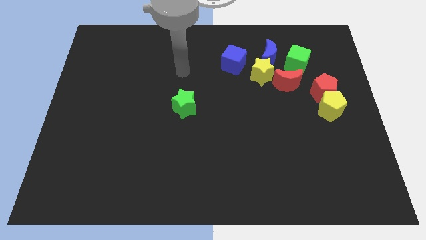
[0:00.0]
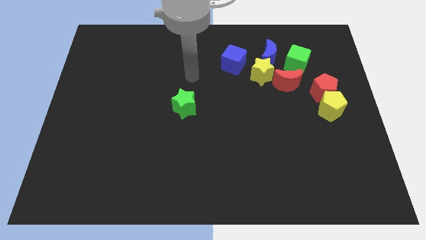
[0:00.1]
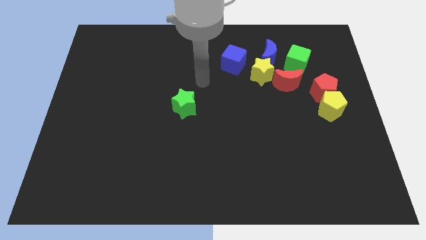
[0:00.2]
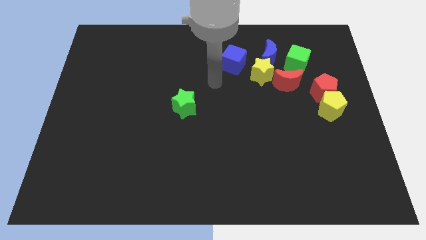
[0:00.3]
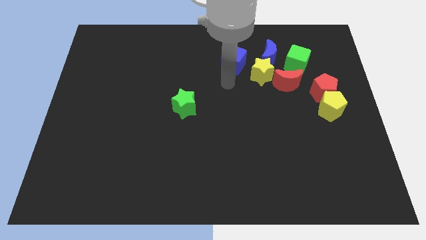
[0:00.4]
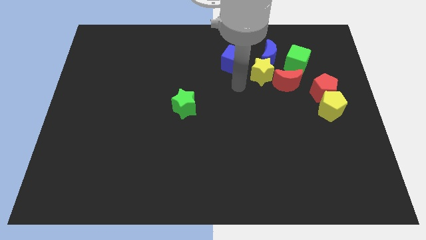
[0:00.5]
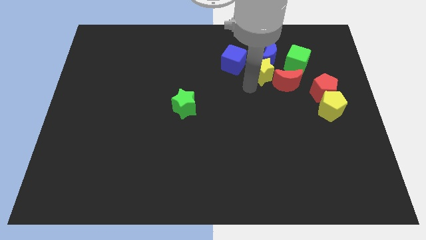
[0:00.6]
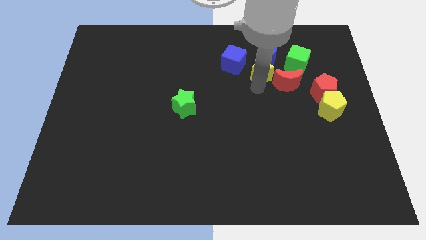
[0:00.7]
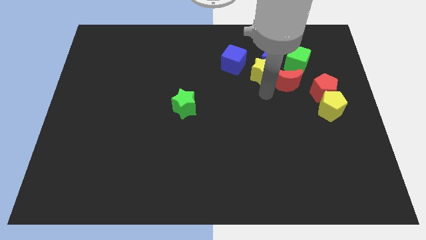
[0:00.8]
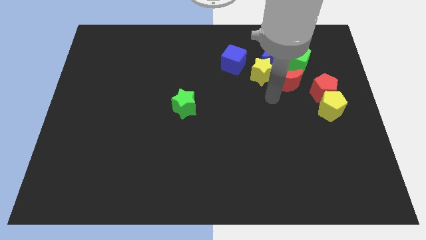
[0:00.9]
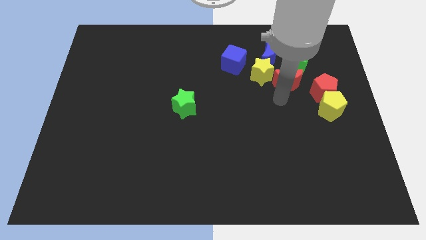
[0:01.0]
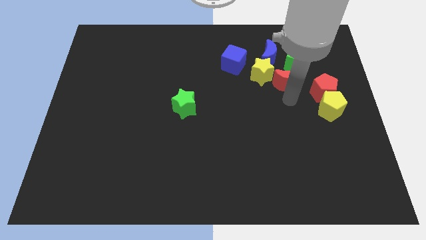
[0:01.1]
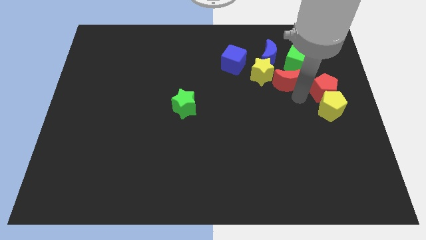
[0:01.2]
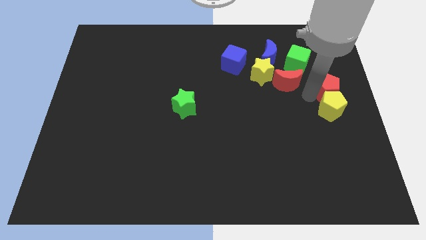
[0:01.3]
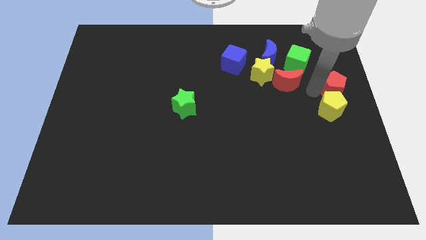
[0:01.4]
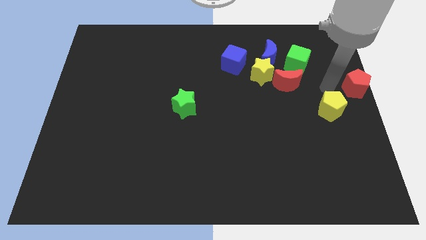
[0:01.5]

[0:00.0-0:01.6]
move the yellow pentagon away from the red pentagon

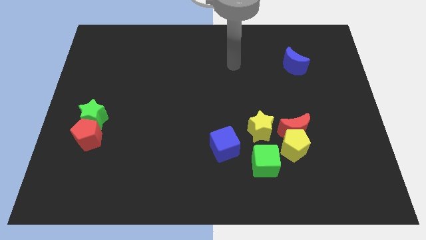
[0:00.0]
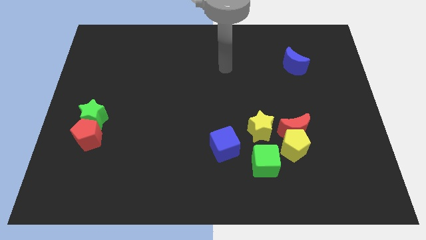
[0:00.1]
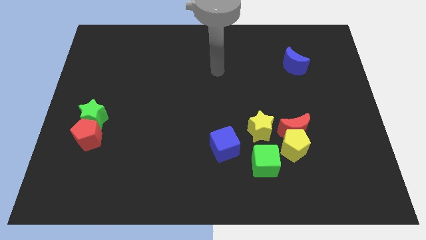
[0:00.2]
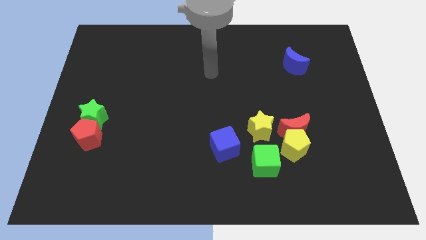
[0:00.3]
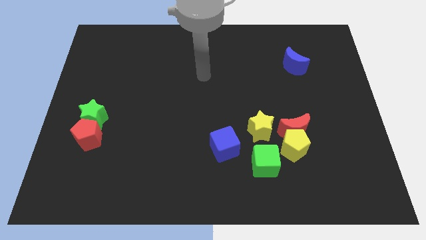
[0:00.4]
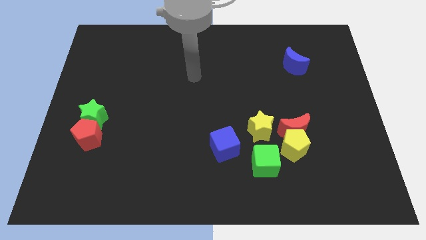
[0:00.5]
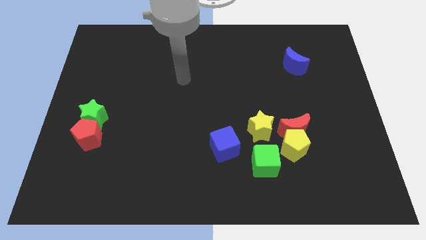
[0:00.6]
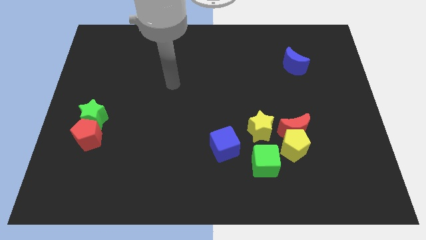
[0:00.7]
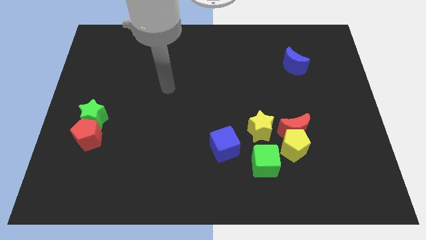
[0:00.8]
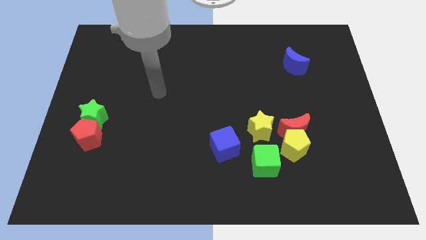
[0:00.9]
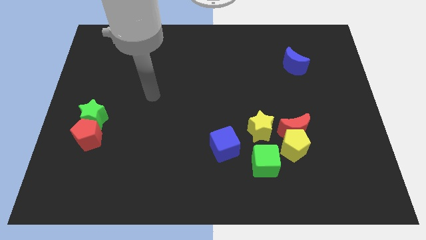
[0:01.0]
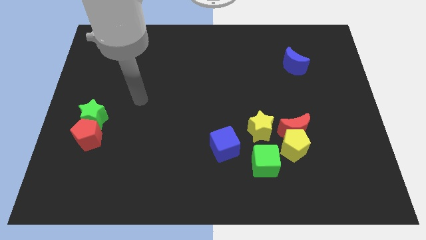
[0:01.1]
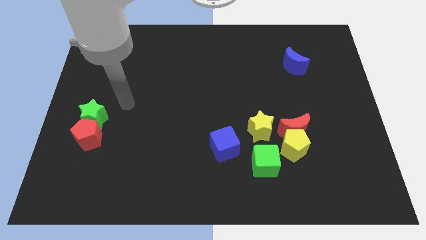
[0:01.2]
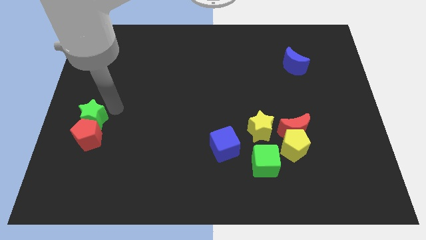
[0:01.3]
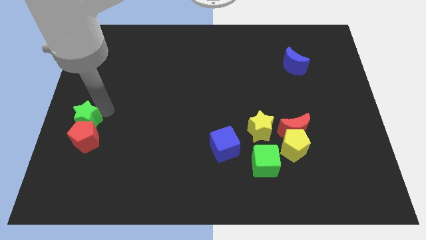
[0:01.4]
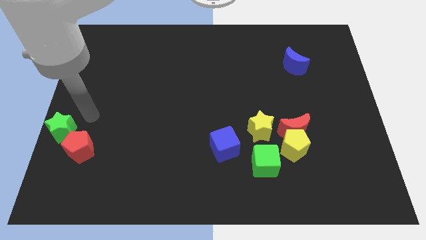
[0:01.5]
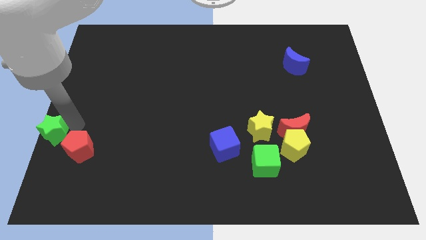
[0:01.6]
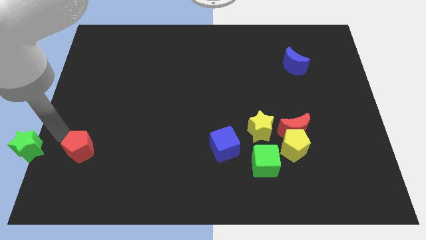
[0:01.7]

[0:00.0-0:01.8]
pull the red pentagon apart from the green star

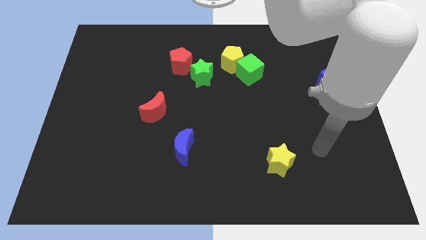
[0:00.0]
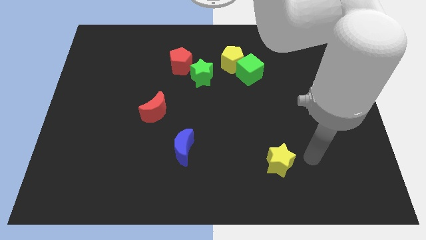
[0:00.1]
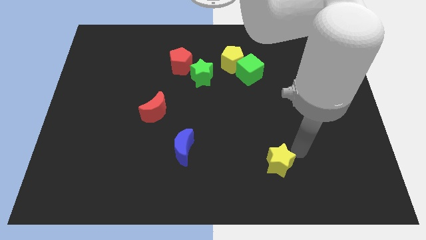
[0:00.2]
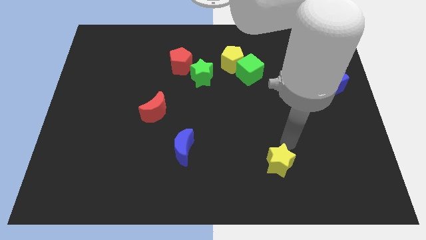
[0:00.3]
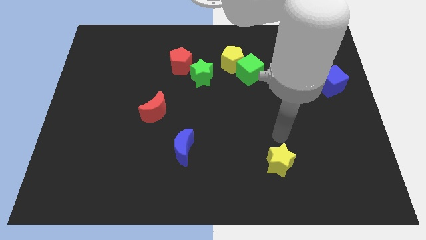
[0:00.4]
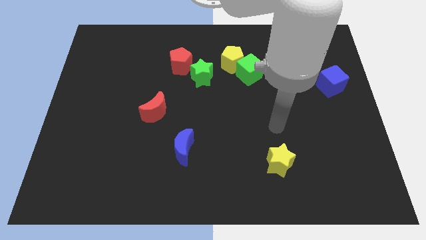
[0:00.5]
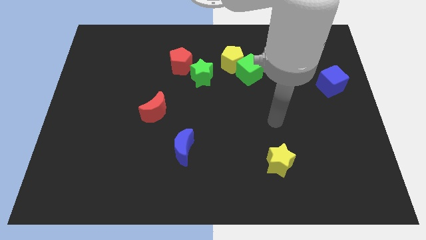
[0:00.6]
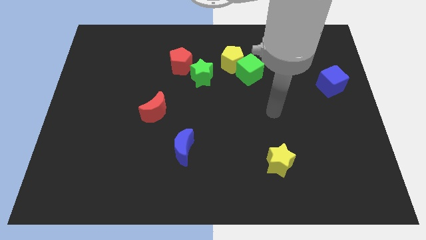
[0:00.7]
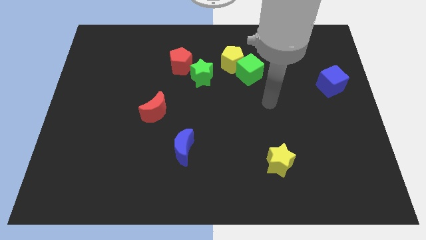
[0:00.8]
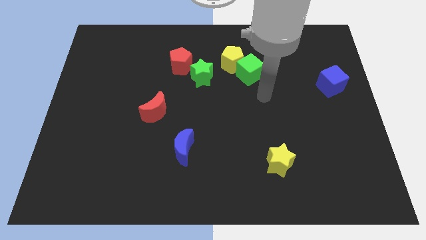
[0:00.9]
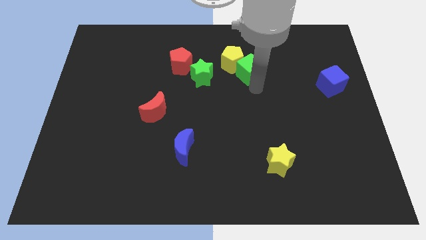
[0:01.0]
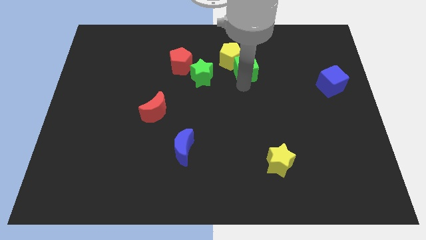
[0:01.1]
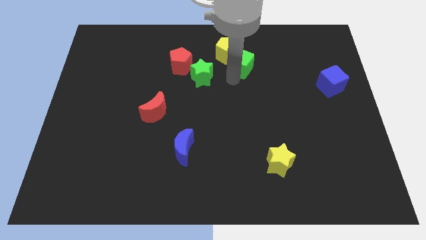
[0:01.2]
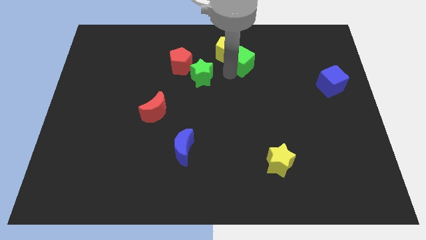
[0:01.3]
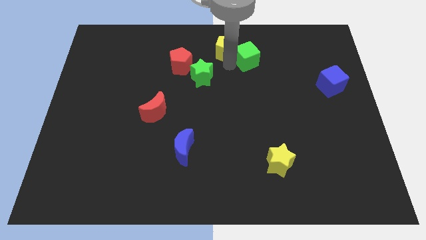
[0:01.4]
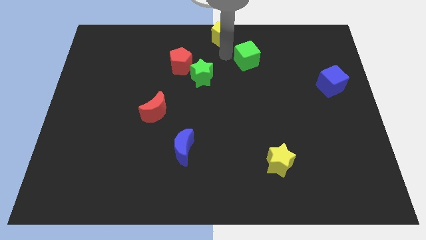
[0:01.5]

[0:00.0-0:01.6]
move the green cube away from the yellow pentagon

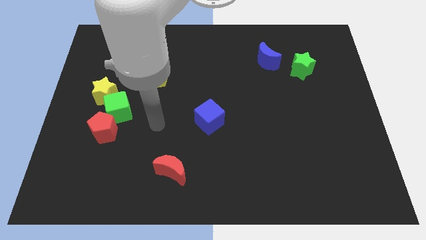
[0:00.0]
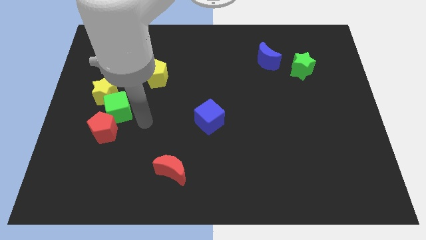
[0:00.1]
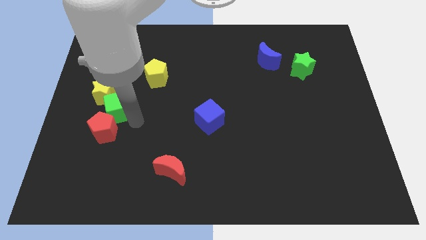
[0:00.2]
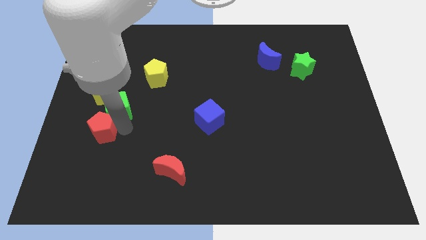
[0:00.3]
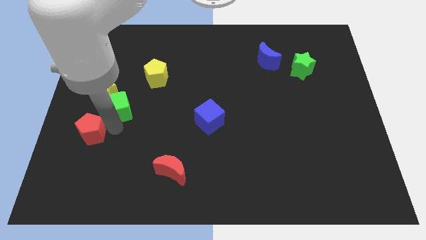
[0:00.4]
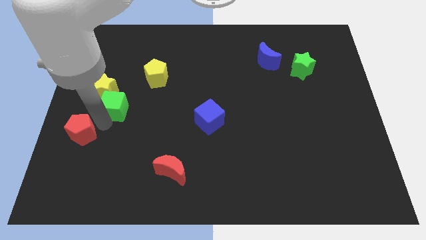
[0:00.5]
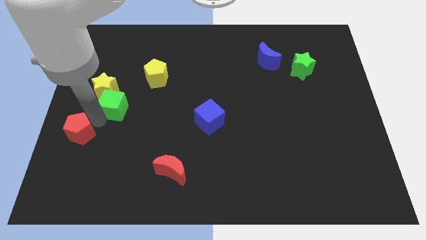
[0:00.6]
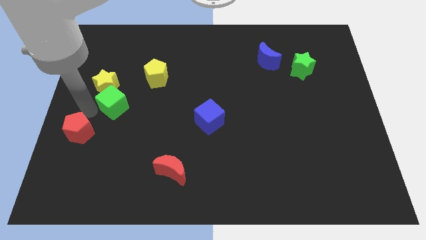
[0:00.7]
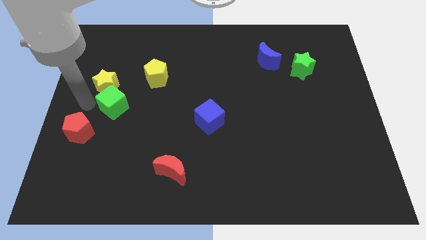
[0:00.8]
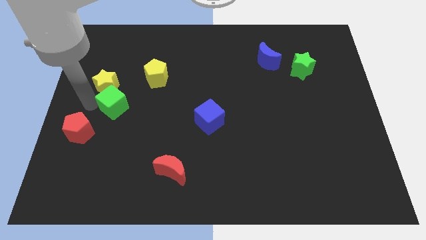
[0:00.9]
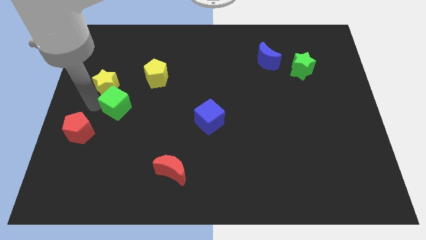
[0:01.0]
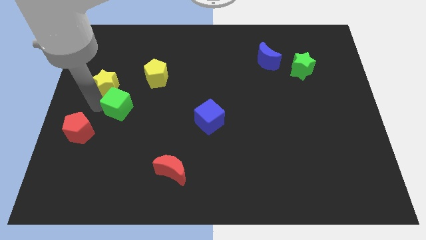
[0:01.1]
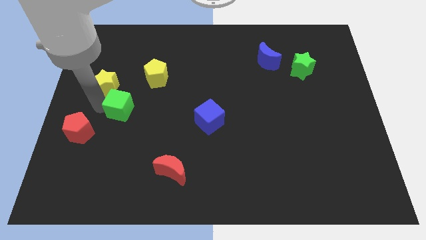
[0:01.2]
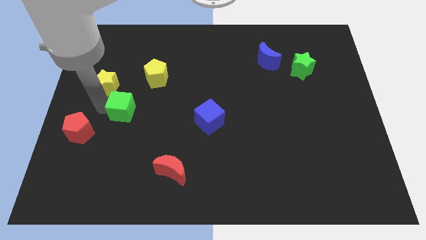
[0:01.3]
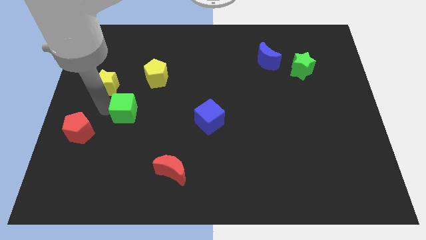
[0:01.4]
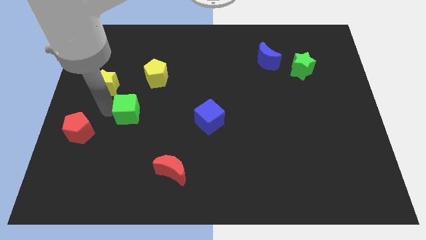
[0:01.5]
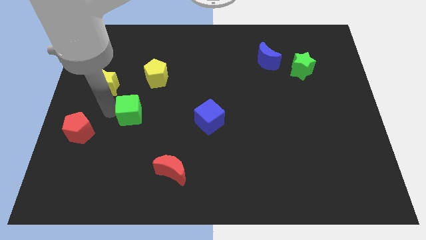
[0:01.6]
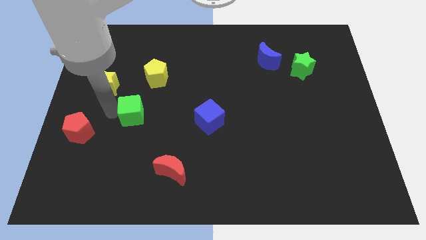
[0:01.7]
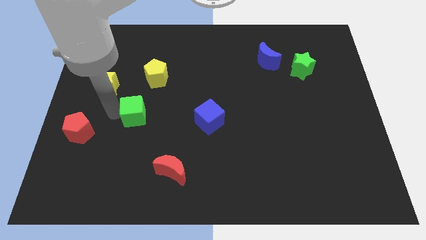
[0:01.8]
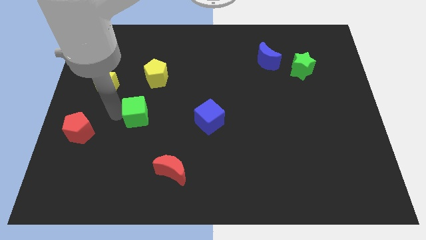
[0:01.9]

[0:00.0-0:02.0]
separate the green cube from the yellow star and red pentagon

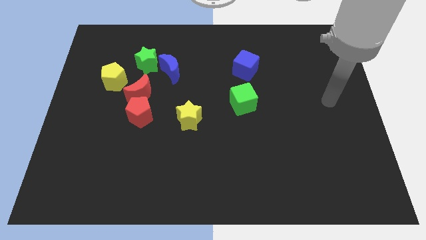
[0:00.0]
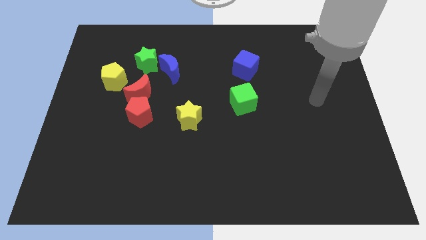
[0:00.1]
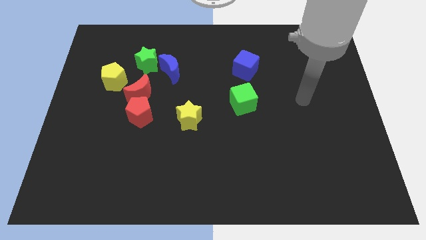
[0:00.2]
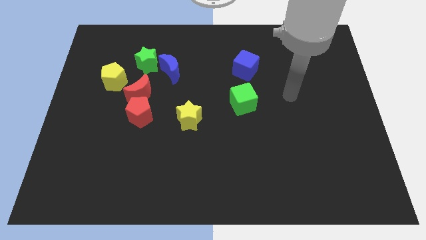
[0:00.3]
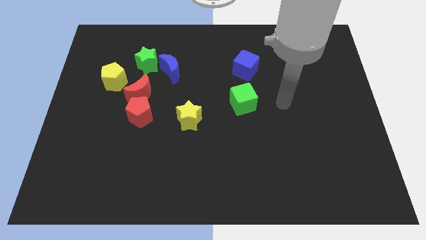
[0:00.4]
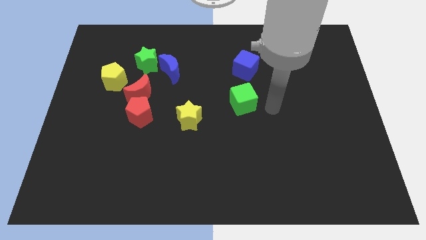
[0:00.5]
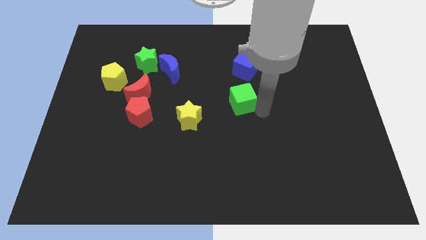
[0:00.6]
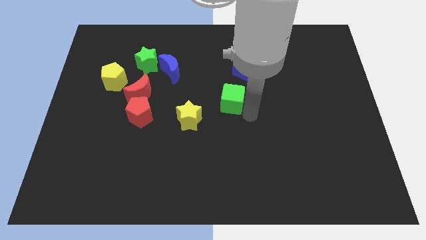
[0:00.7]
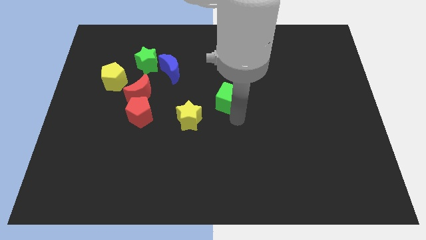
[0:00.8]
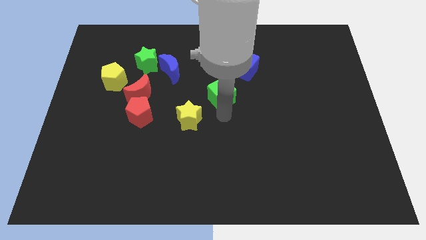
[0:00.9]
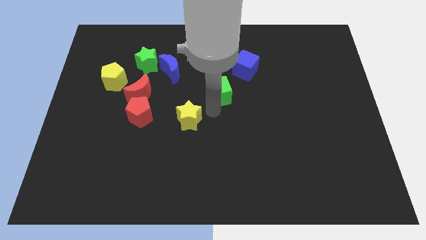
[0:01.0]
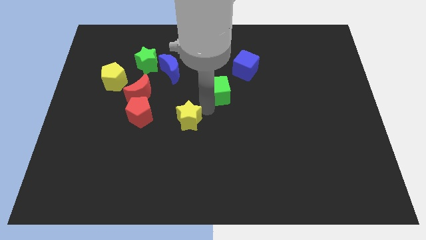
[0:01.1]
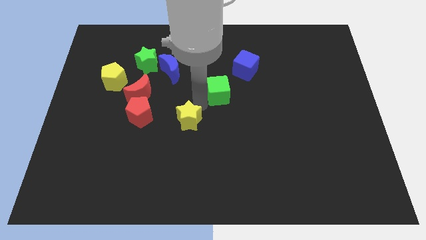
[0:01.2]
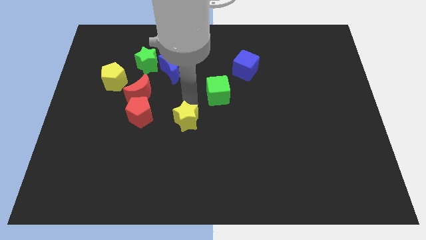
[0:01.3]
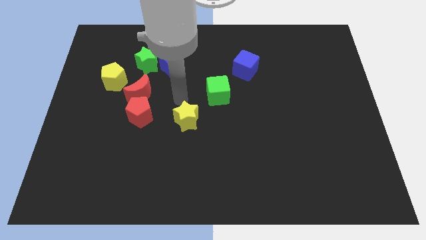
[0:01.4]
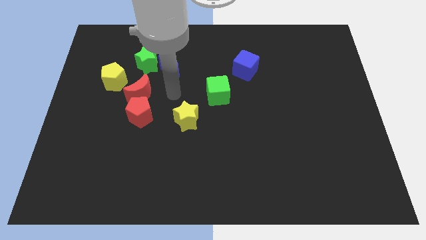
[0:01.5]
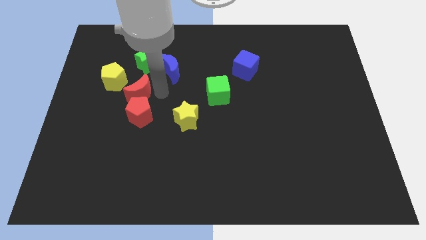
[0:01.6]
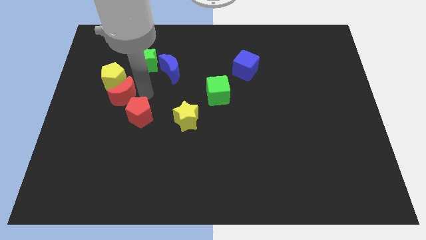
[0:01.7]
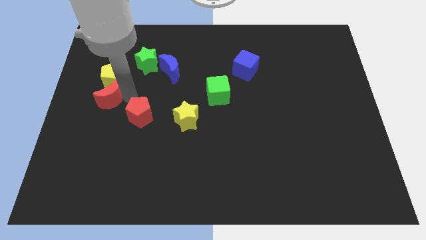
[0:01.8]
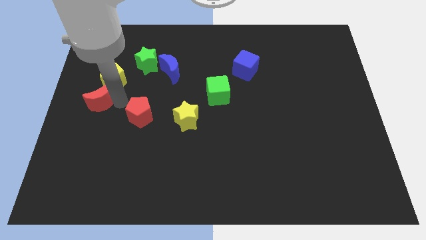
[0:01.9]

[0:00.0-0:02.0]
move the red pentagon away from the red moon

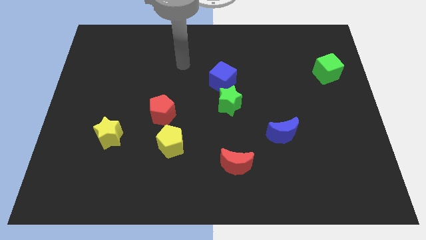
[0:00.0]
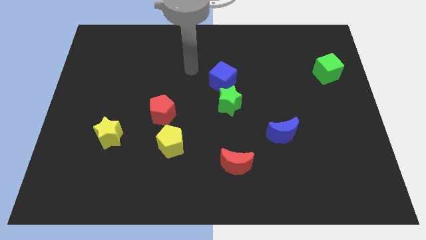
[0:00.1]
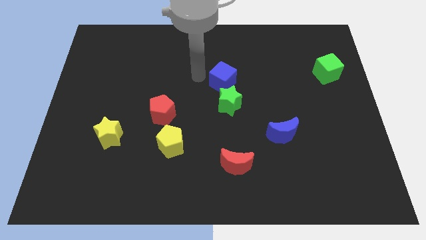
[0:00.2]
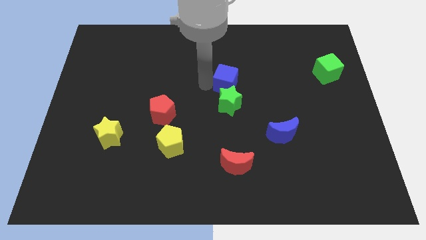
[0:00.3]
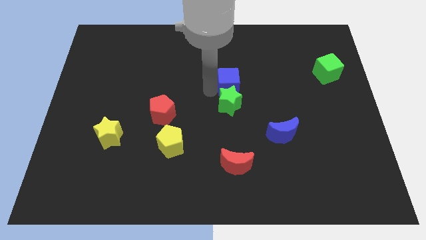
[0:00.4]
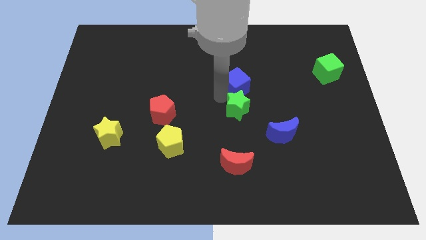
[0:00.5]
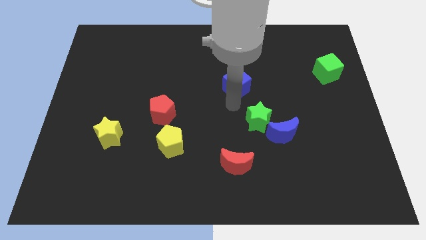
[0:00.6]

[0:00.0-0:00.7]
separate the blue cube from the green star
